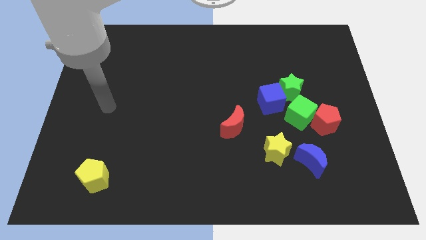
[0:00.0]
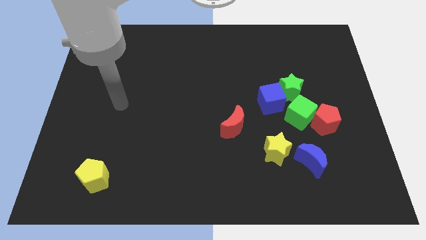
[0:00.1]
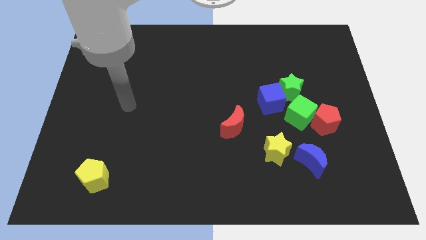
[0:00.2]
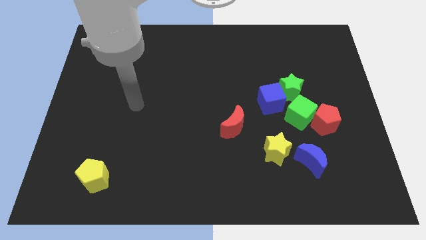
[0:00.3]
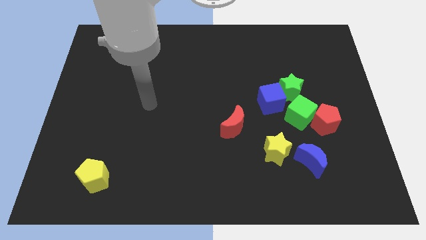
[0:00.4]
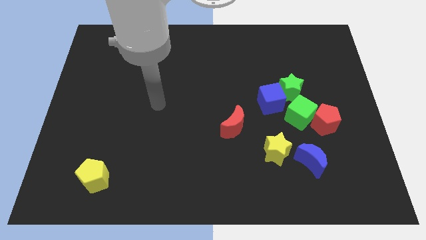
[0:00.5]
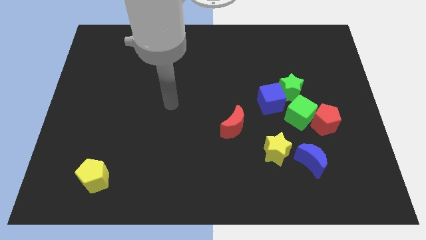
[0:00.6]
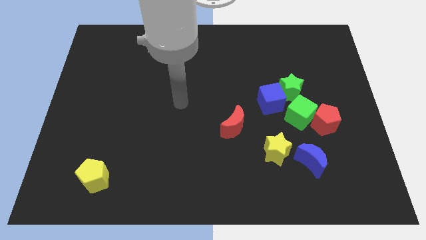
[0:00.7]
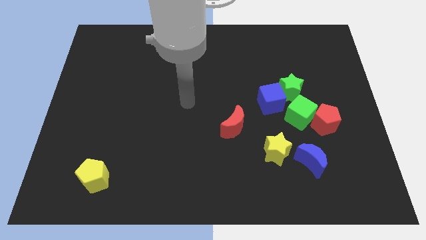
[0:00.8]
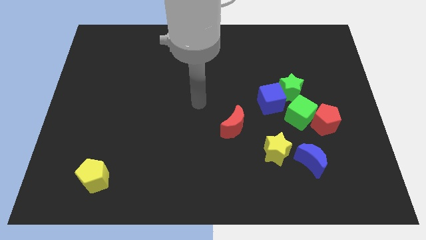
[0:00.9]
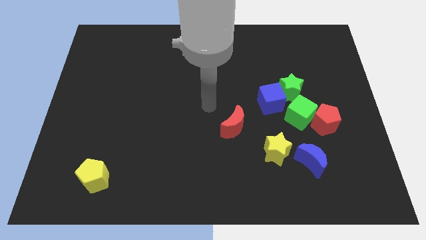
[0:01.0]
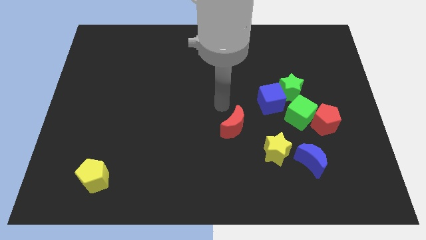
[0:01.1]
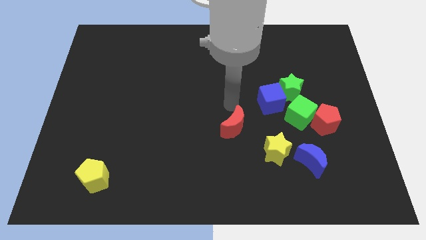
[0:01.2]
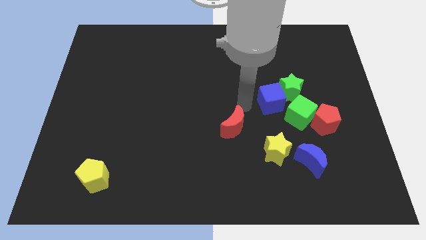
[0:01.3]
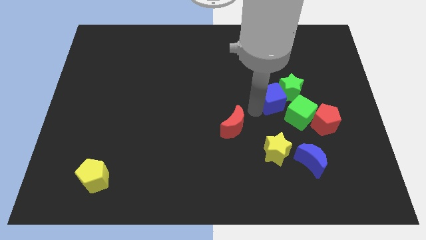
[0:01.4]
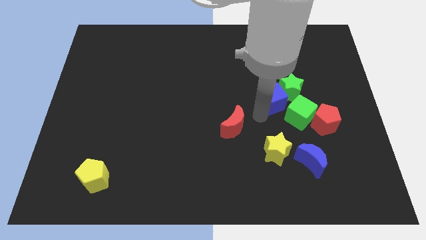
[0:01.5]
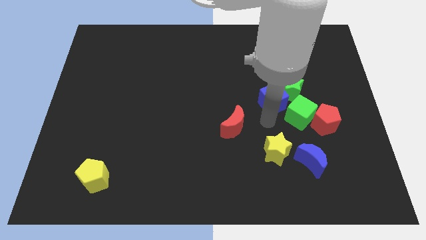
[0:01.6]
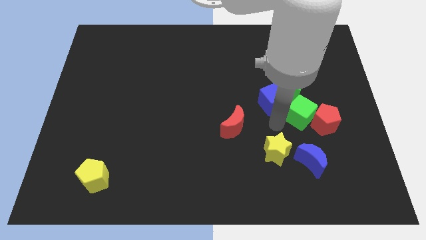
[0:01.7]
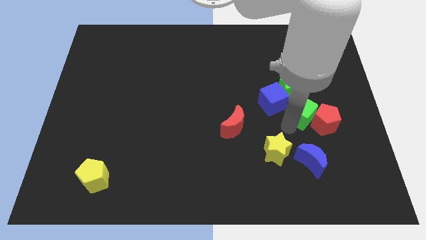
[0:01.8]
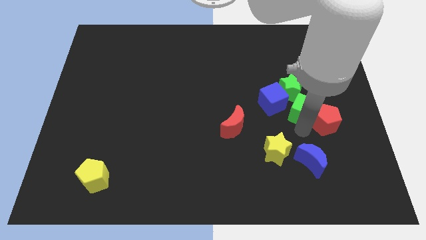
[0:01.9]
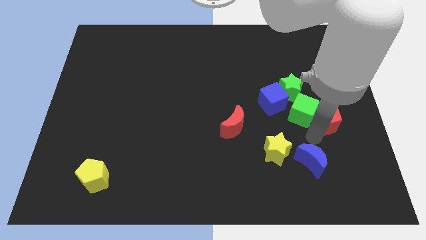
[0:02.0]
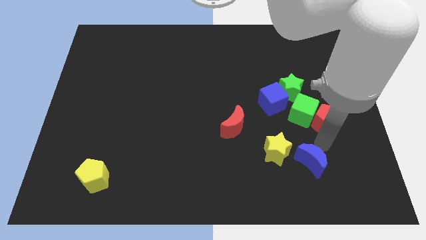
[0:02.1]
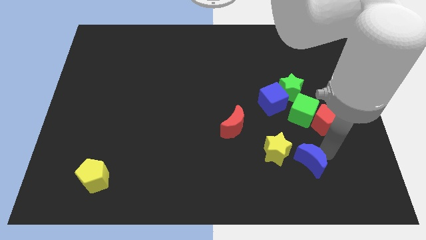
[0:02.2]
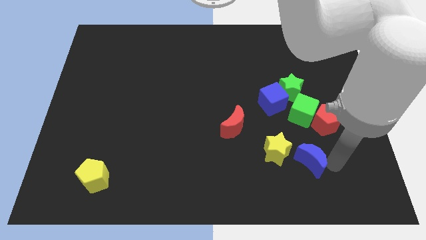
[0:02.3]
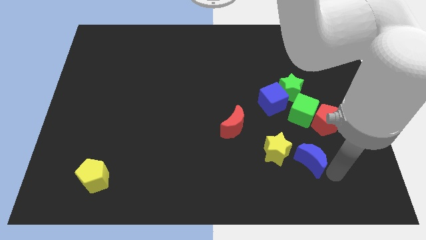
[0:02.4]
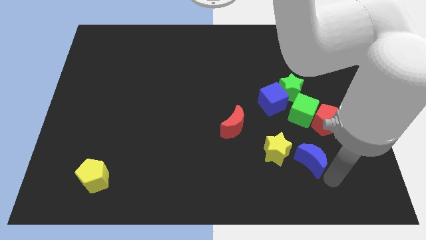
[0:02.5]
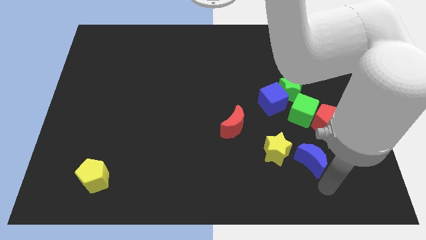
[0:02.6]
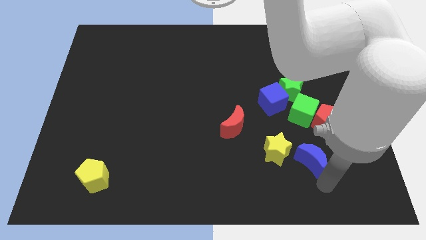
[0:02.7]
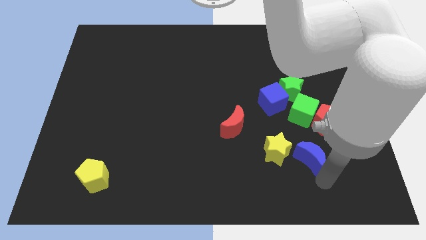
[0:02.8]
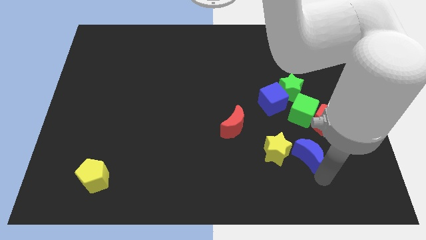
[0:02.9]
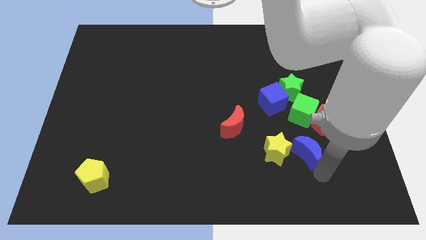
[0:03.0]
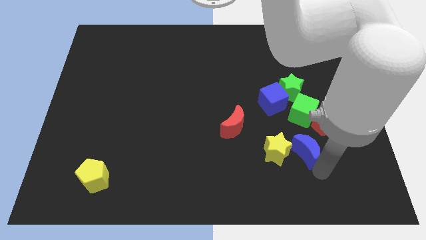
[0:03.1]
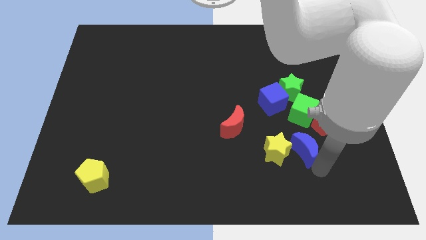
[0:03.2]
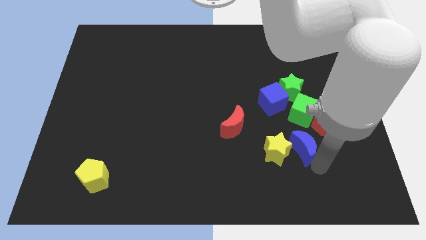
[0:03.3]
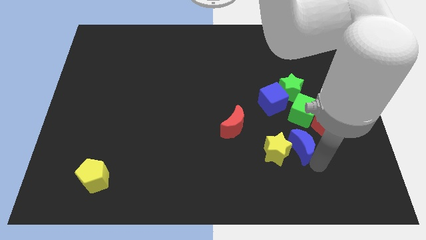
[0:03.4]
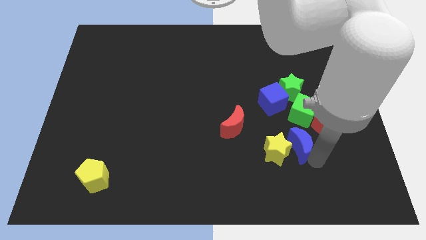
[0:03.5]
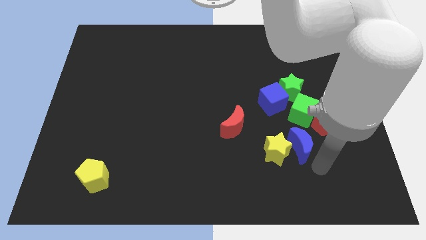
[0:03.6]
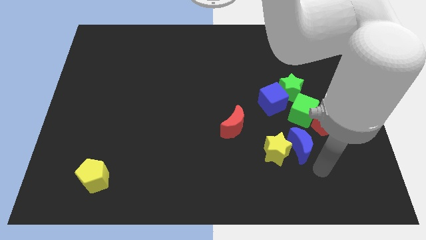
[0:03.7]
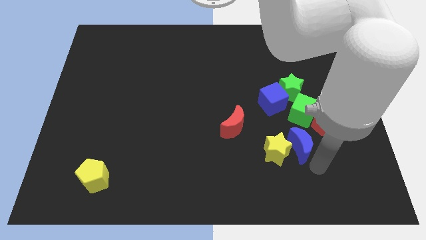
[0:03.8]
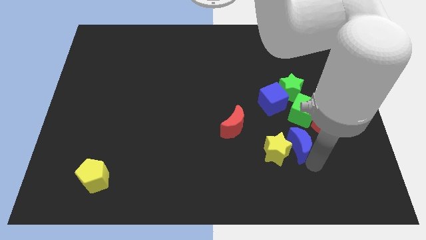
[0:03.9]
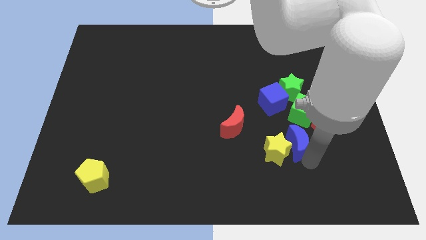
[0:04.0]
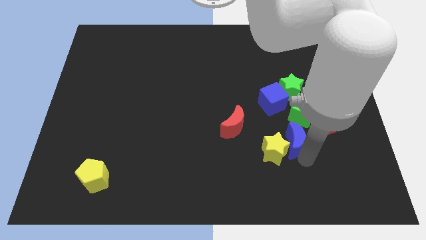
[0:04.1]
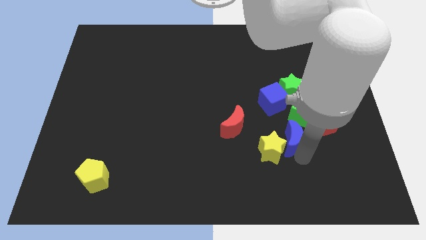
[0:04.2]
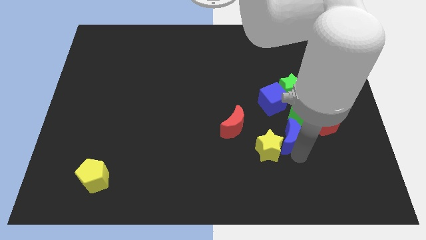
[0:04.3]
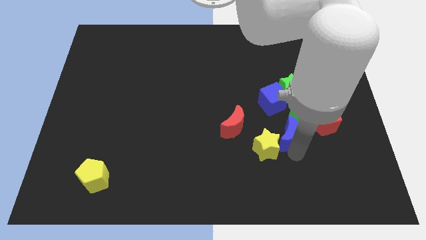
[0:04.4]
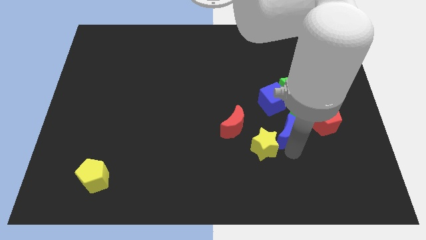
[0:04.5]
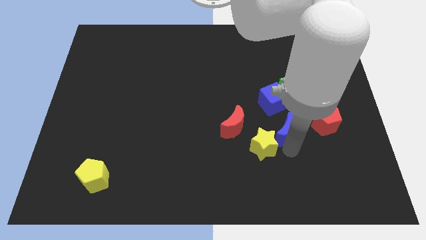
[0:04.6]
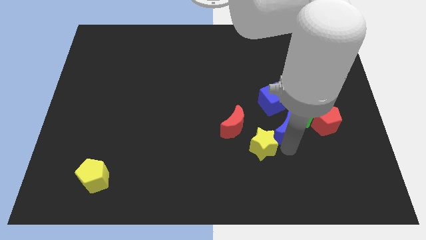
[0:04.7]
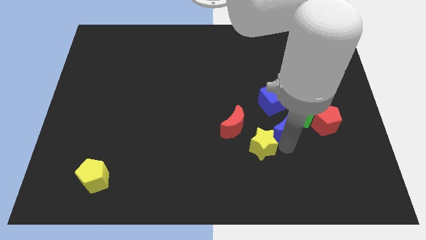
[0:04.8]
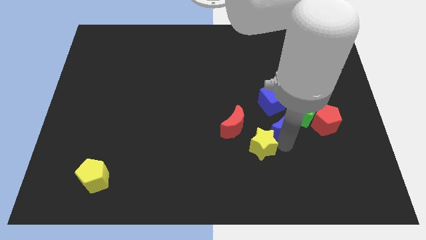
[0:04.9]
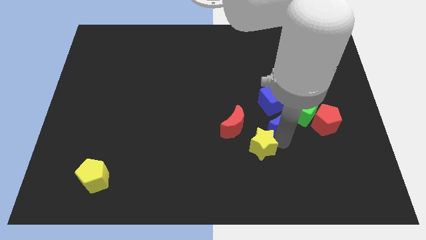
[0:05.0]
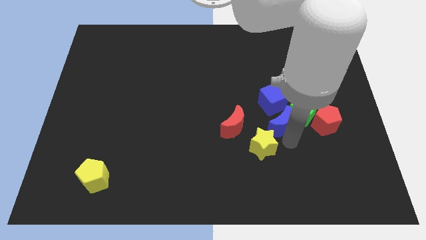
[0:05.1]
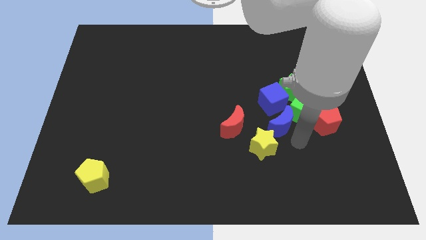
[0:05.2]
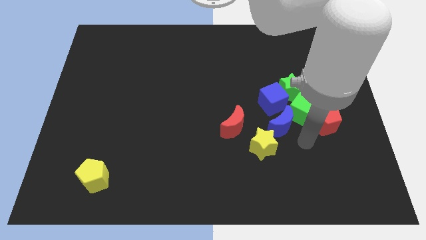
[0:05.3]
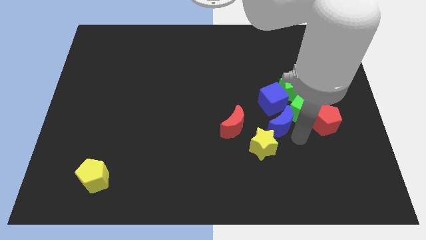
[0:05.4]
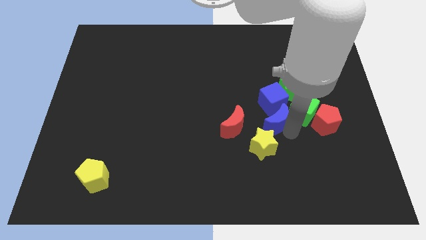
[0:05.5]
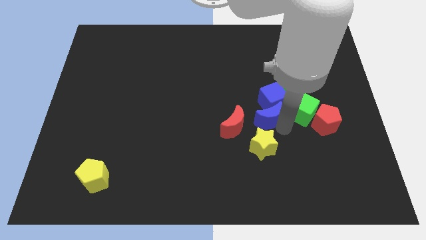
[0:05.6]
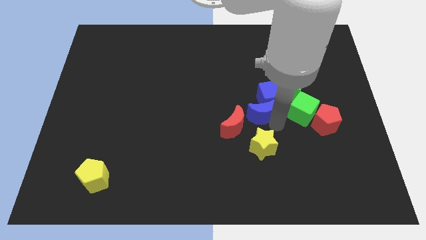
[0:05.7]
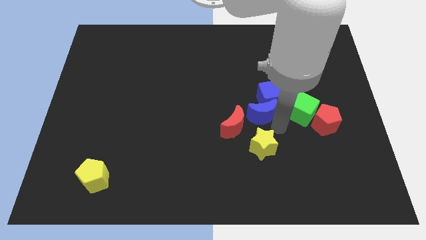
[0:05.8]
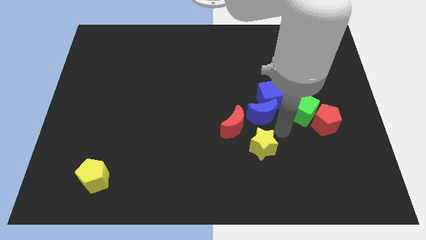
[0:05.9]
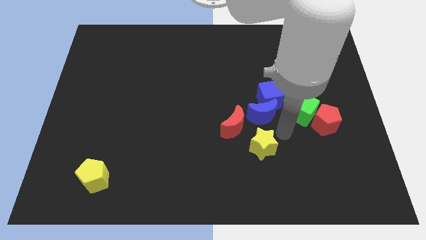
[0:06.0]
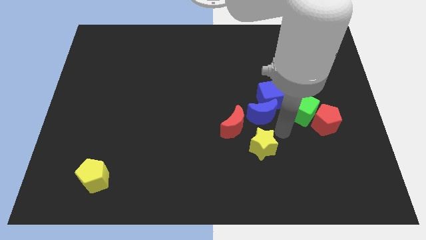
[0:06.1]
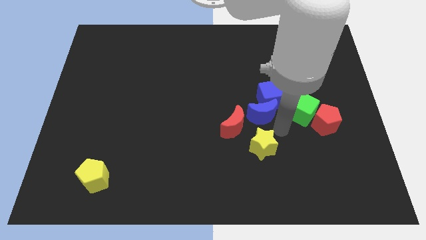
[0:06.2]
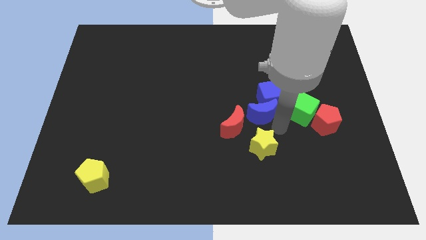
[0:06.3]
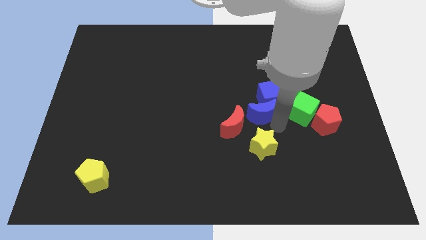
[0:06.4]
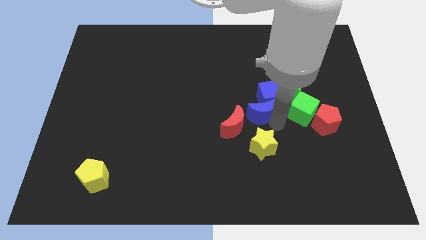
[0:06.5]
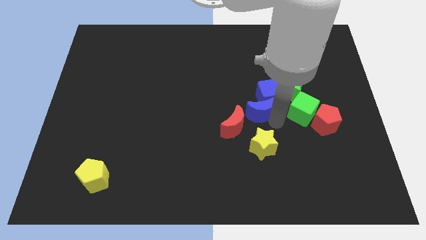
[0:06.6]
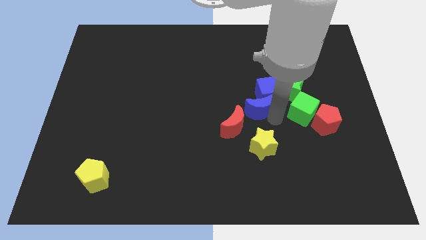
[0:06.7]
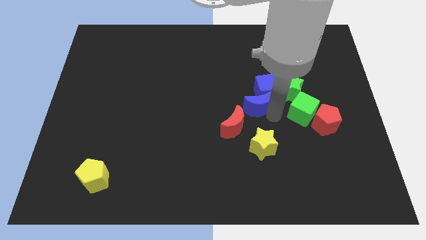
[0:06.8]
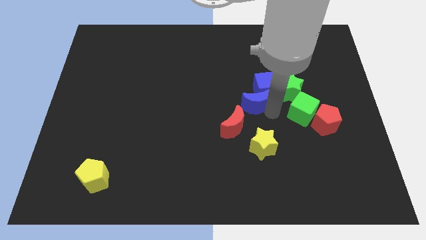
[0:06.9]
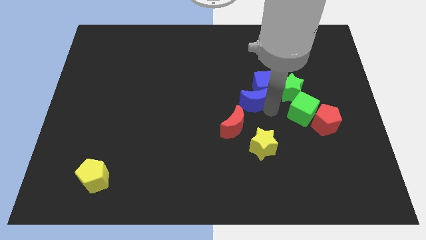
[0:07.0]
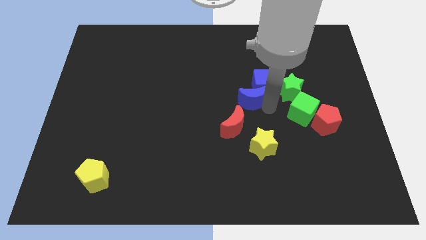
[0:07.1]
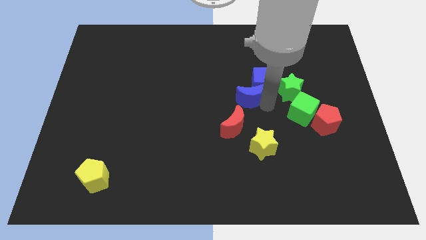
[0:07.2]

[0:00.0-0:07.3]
slide the blue moon upwards and then left

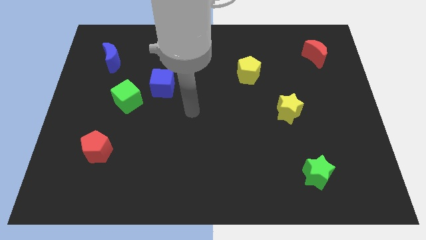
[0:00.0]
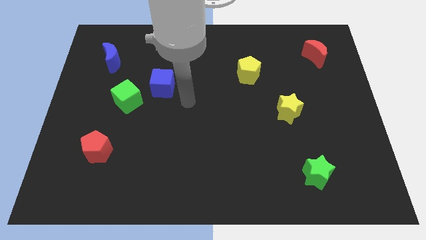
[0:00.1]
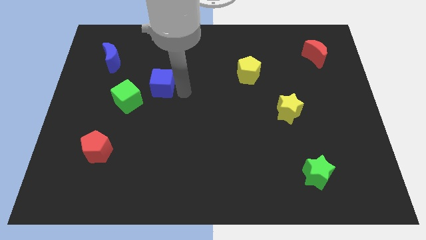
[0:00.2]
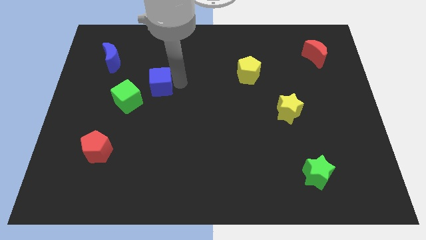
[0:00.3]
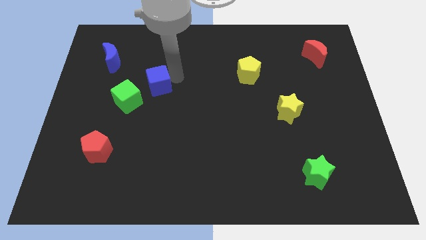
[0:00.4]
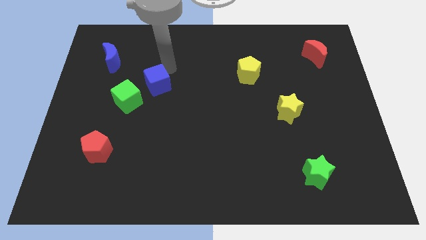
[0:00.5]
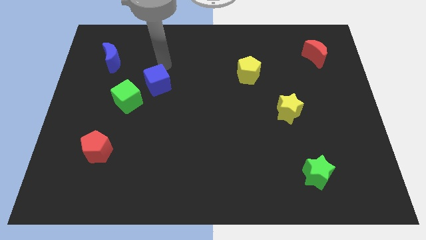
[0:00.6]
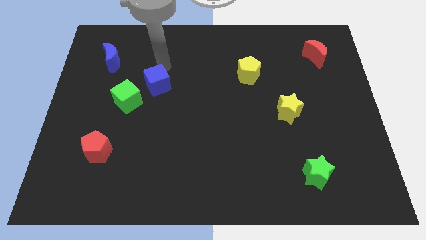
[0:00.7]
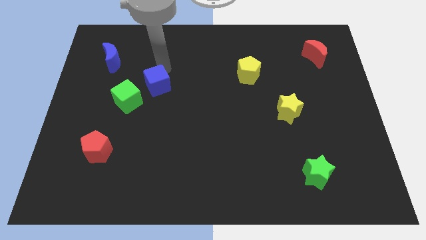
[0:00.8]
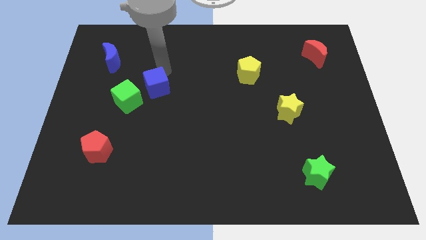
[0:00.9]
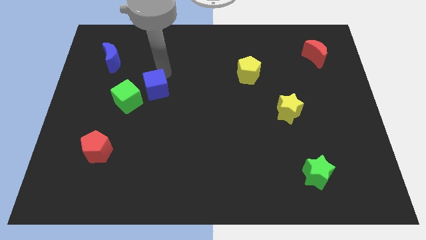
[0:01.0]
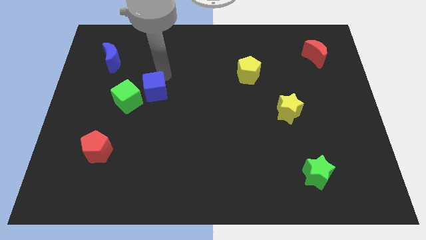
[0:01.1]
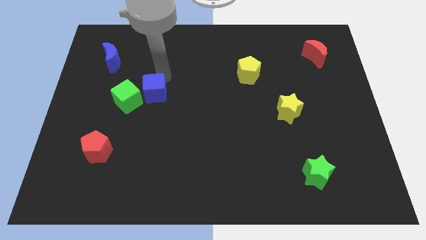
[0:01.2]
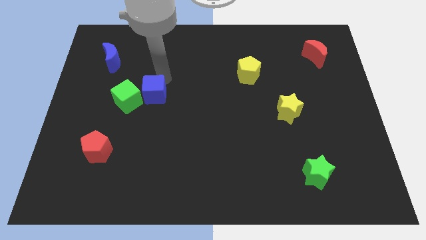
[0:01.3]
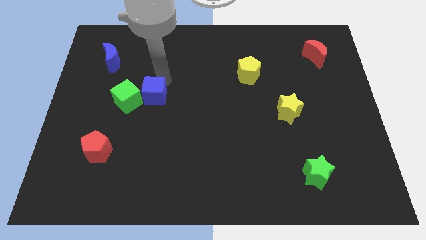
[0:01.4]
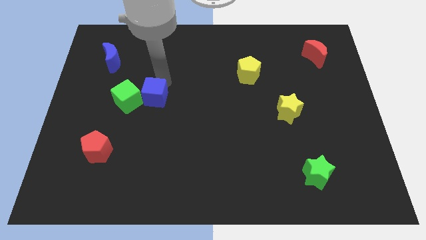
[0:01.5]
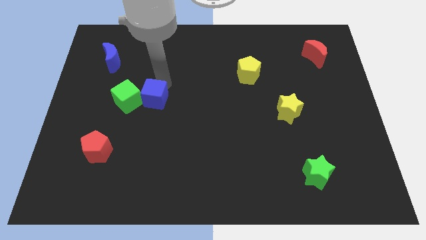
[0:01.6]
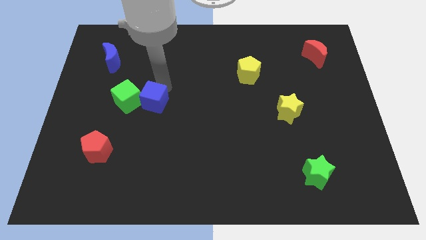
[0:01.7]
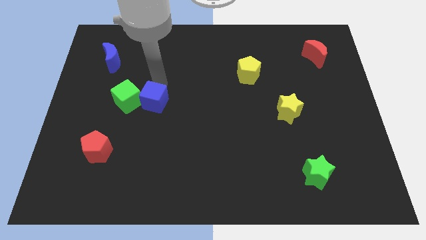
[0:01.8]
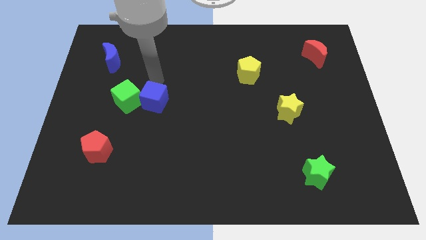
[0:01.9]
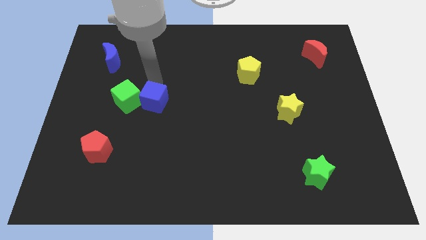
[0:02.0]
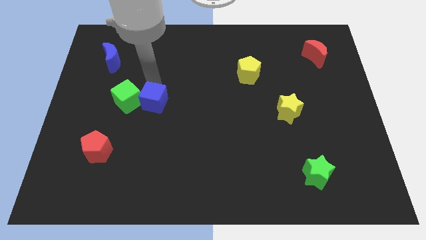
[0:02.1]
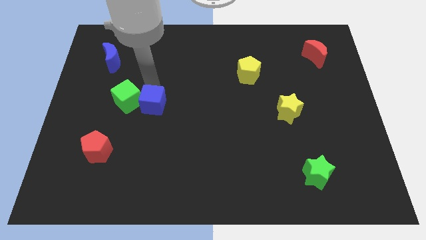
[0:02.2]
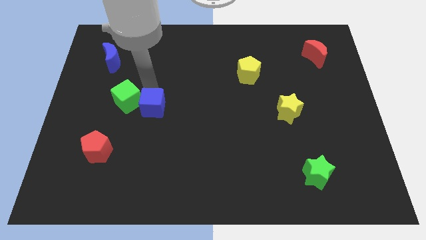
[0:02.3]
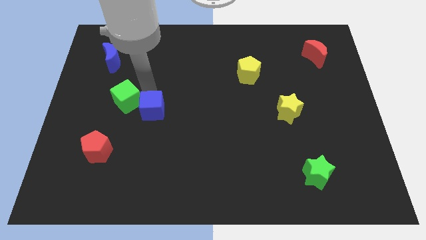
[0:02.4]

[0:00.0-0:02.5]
push the blue cube a bit downwards
